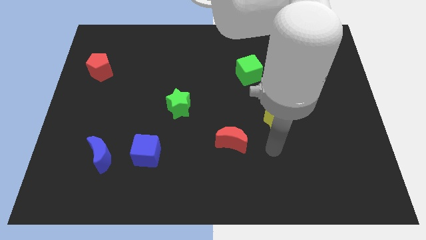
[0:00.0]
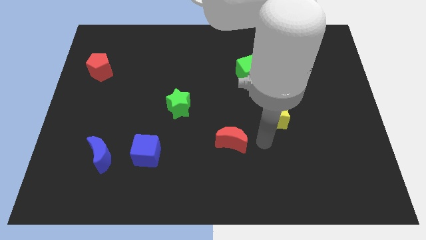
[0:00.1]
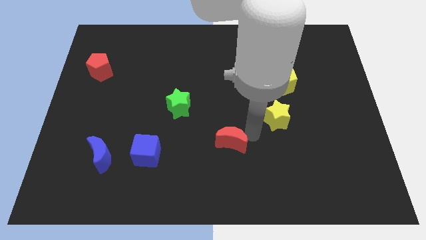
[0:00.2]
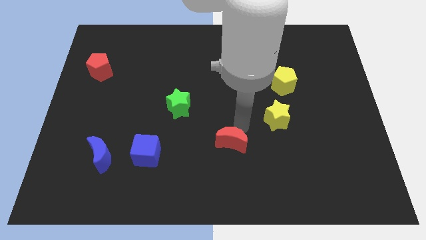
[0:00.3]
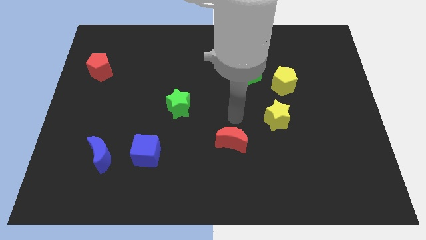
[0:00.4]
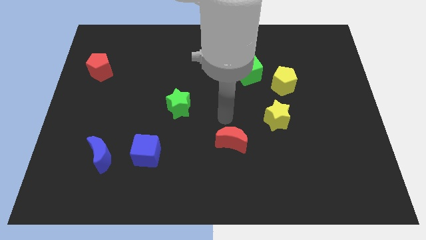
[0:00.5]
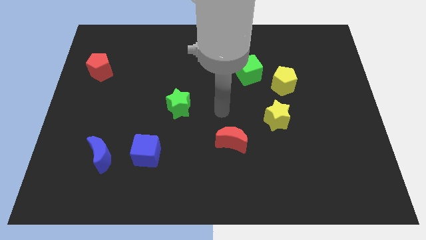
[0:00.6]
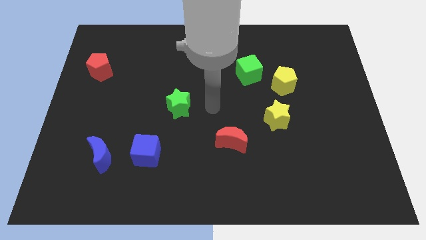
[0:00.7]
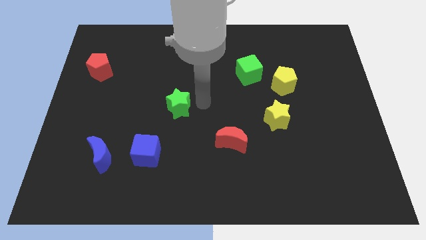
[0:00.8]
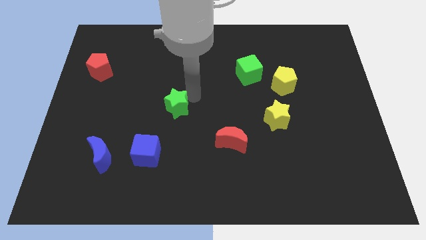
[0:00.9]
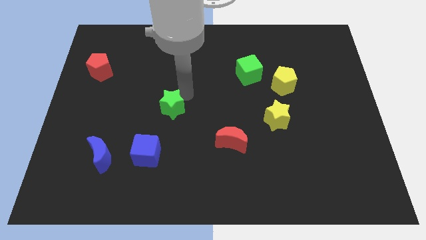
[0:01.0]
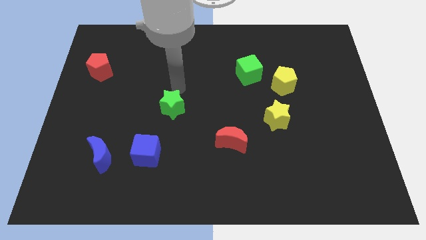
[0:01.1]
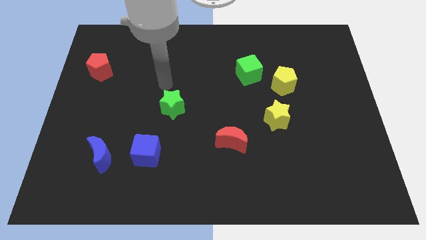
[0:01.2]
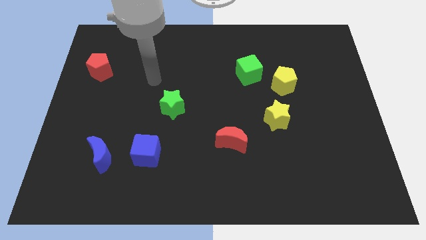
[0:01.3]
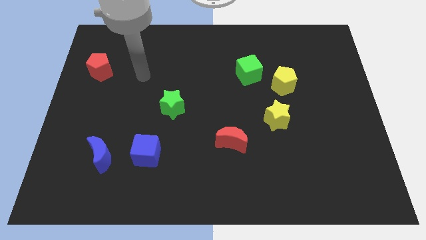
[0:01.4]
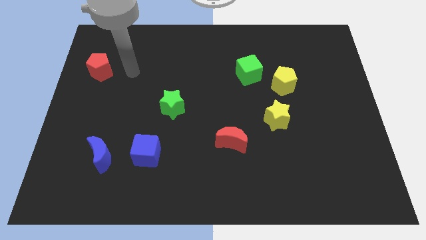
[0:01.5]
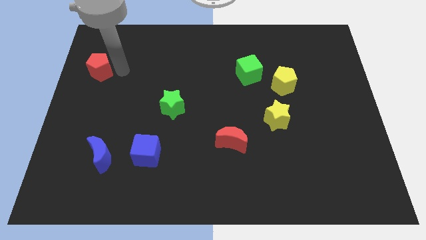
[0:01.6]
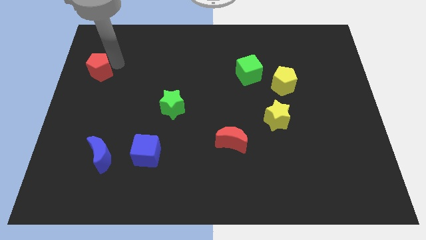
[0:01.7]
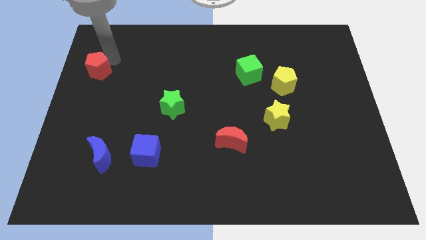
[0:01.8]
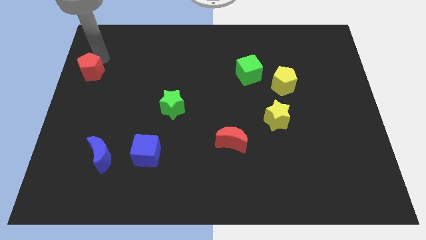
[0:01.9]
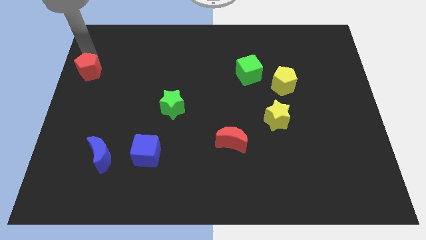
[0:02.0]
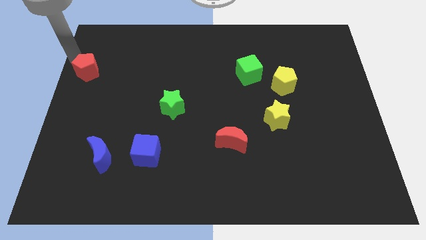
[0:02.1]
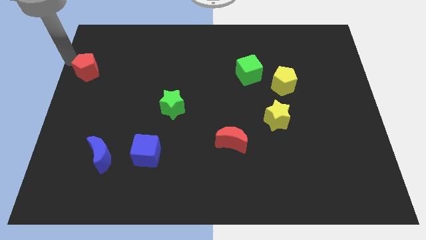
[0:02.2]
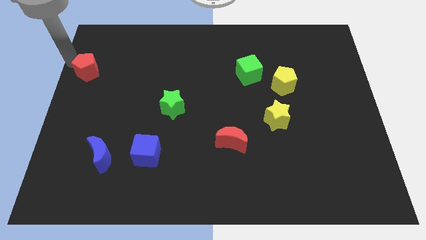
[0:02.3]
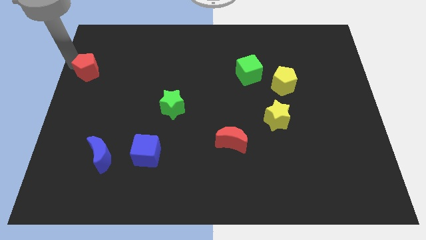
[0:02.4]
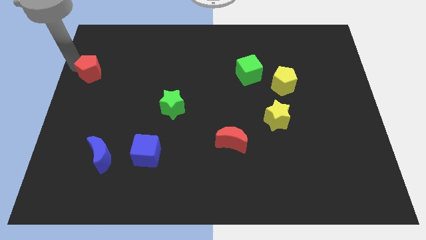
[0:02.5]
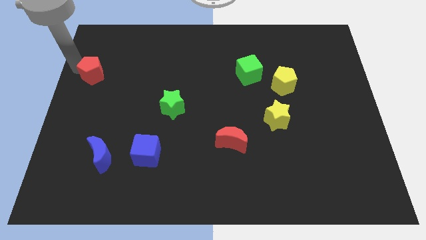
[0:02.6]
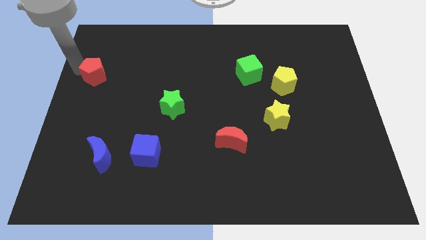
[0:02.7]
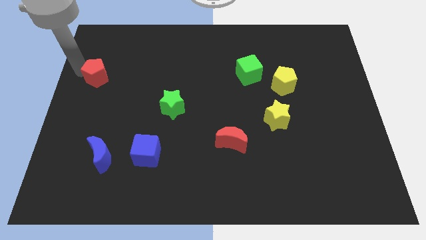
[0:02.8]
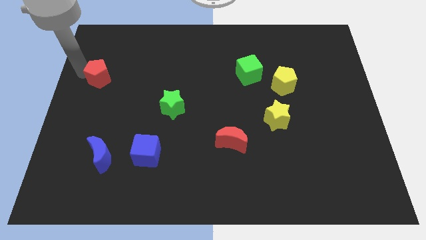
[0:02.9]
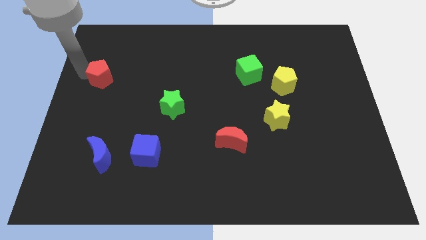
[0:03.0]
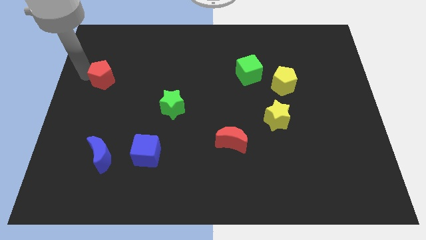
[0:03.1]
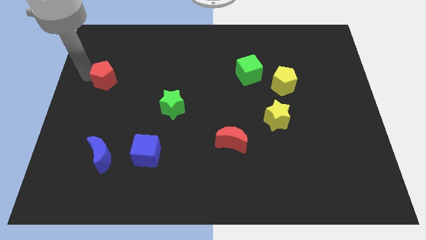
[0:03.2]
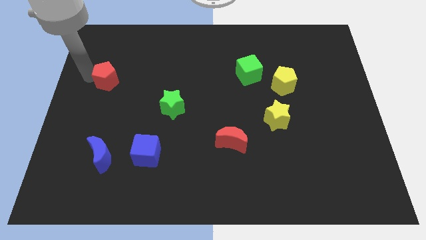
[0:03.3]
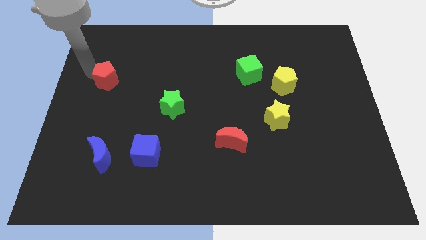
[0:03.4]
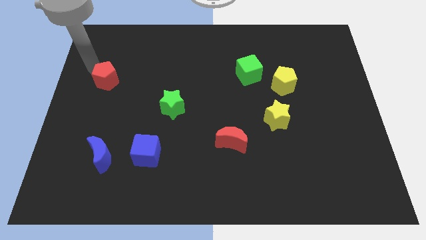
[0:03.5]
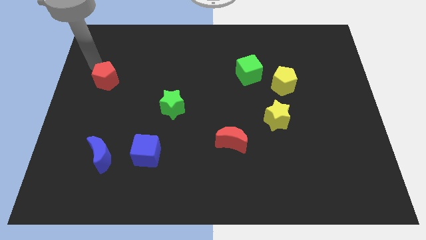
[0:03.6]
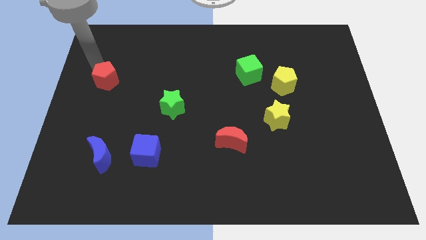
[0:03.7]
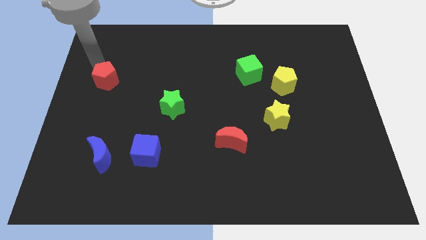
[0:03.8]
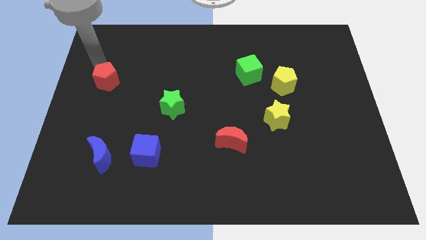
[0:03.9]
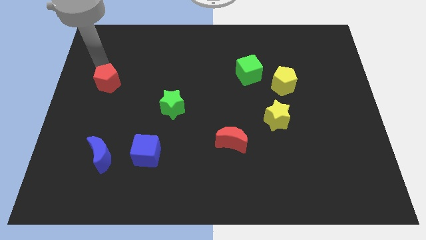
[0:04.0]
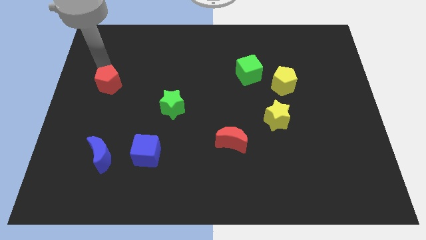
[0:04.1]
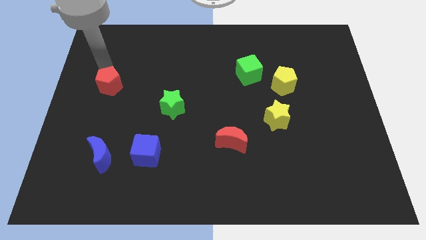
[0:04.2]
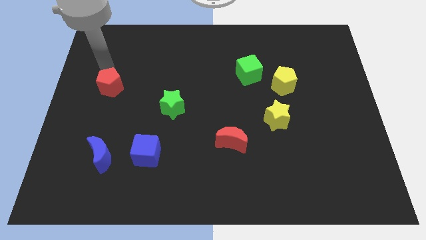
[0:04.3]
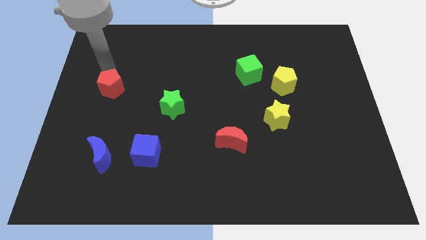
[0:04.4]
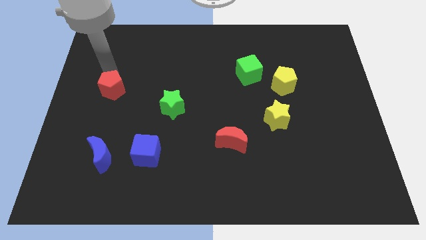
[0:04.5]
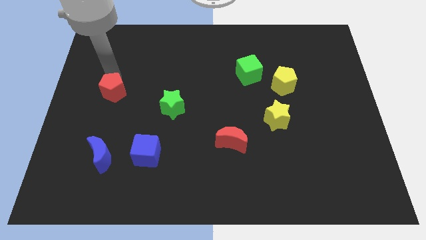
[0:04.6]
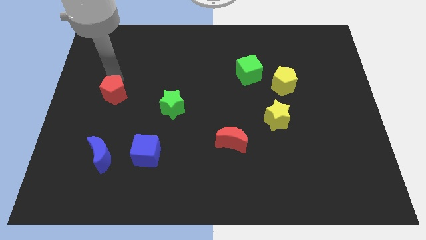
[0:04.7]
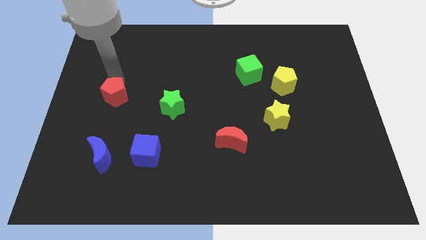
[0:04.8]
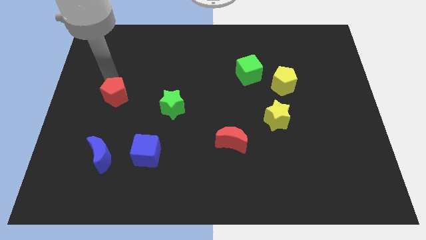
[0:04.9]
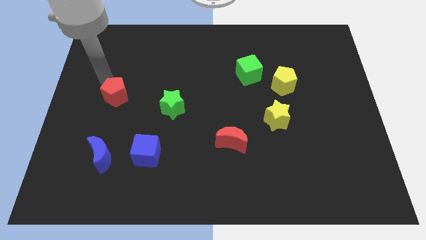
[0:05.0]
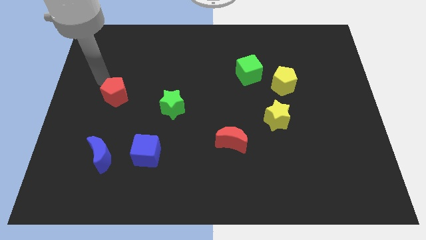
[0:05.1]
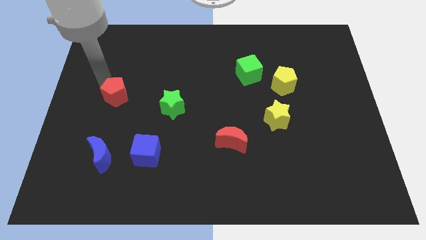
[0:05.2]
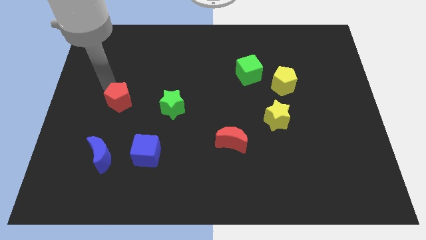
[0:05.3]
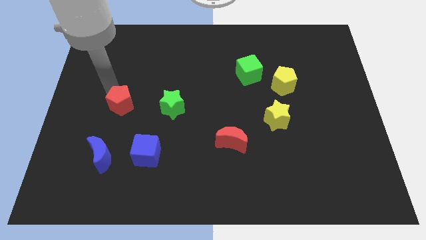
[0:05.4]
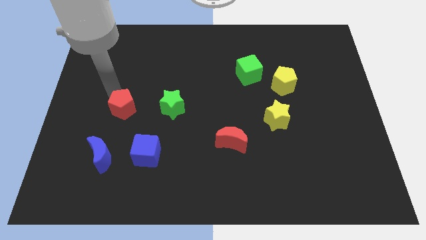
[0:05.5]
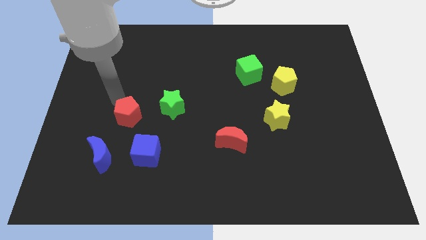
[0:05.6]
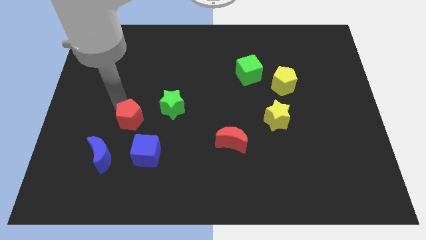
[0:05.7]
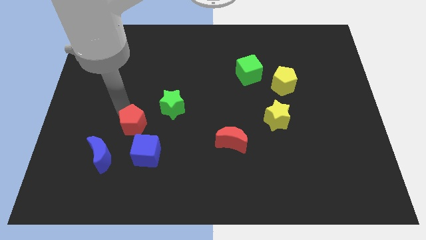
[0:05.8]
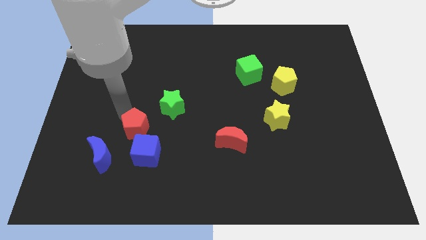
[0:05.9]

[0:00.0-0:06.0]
push the red pentagon down and to the right diagonally

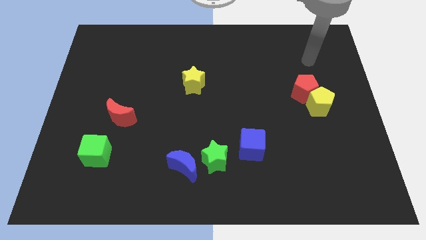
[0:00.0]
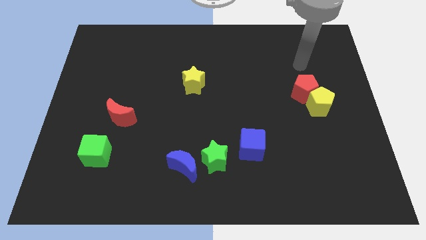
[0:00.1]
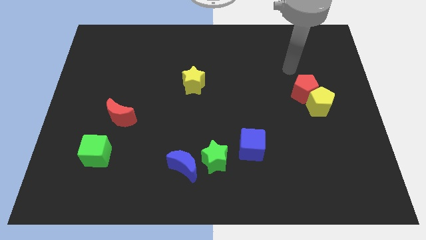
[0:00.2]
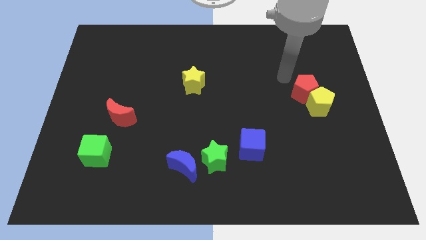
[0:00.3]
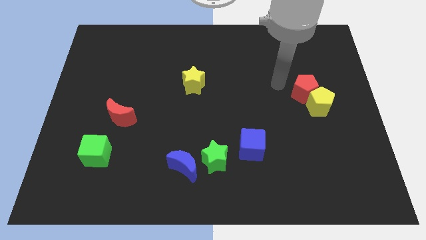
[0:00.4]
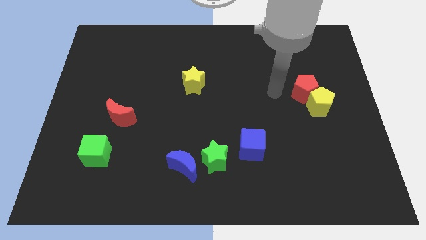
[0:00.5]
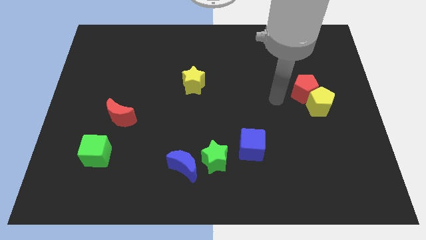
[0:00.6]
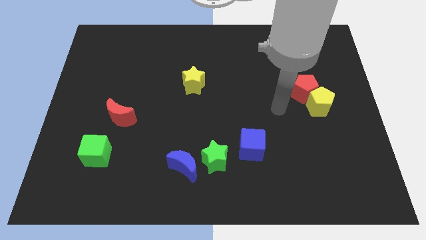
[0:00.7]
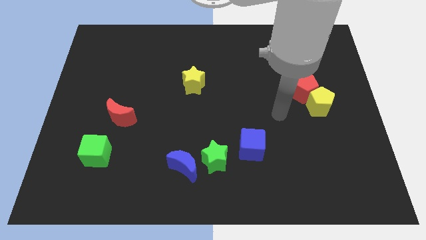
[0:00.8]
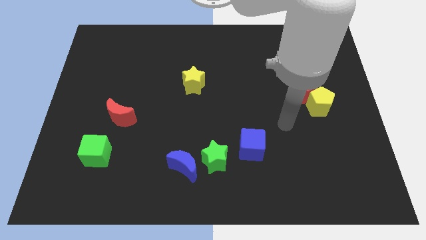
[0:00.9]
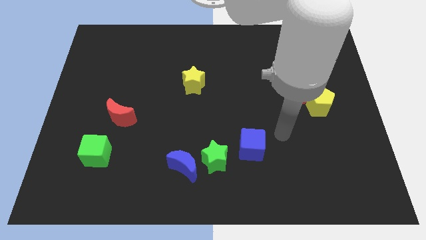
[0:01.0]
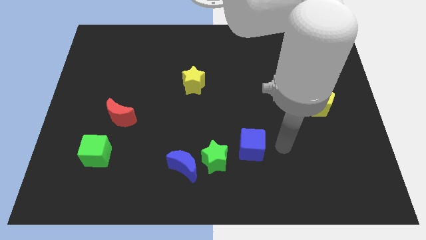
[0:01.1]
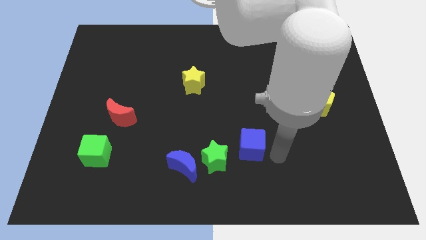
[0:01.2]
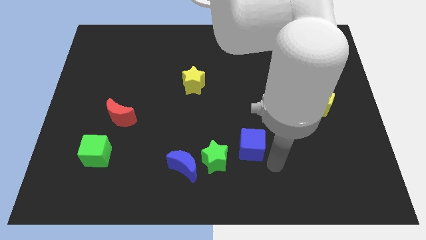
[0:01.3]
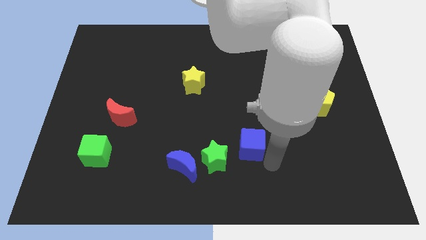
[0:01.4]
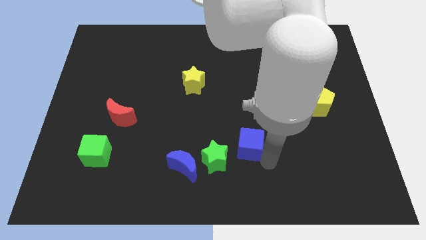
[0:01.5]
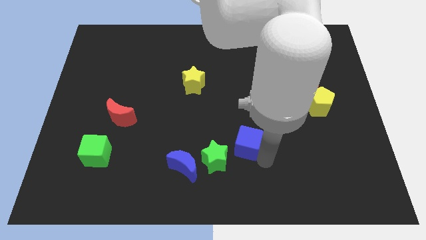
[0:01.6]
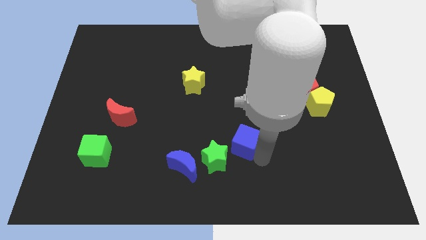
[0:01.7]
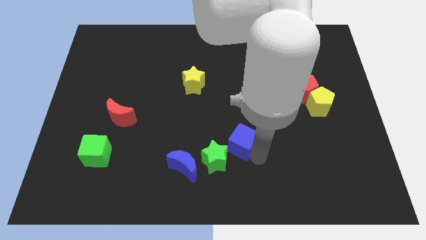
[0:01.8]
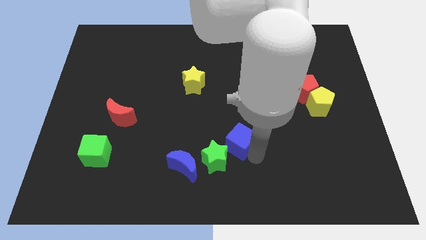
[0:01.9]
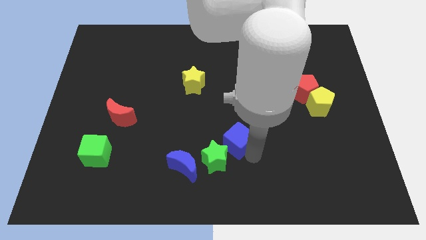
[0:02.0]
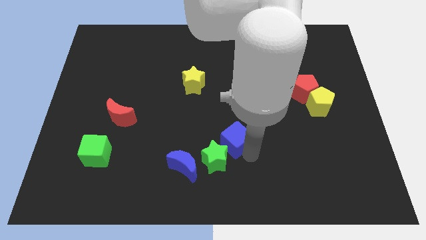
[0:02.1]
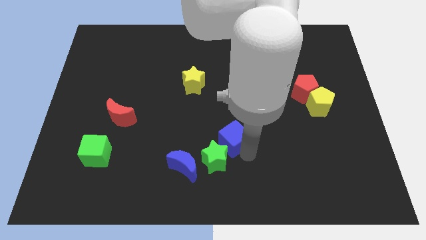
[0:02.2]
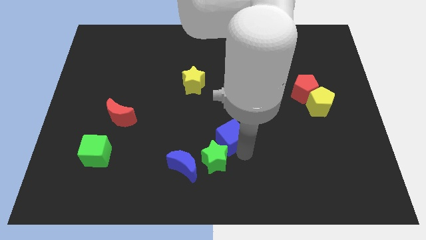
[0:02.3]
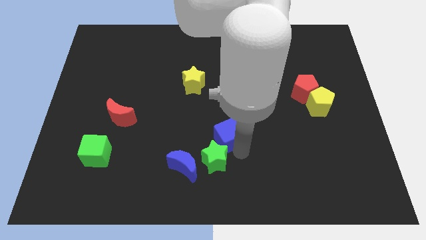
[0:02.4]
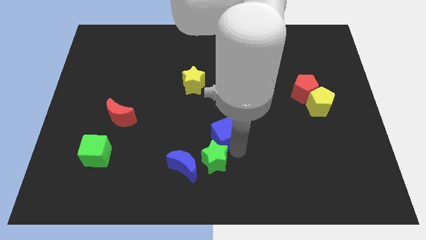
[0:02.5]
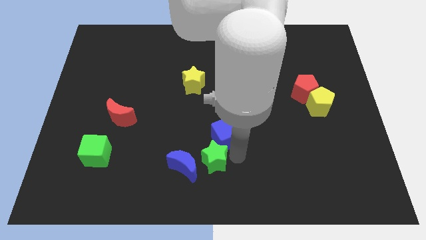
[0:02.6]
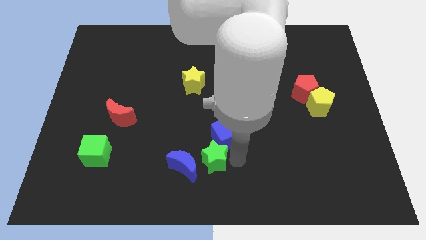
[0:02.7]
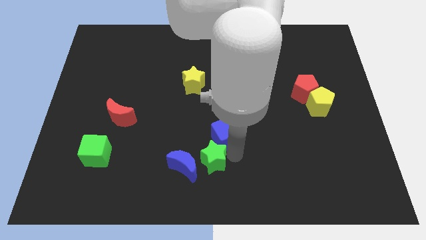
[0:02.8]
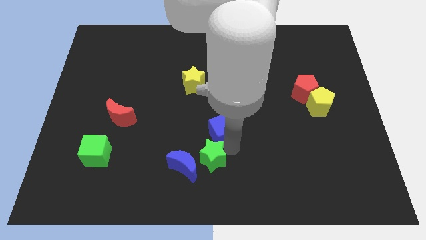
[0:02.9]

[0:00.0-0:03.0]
move the blue cube a little bit diagonally upwards and to the left
